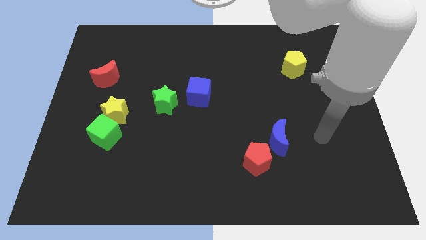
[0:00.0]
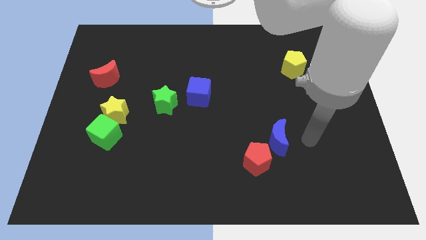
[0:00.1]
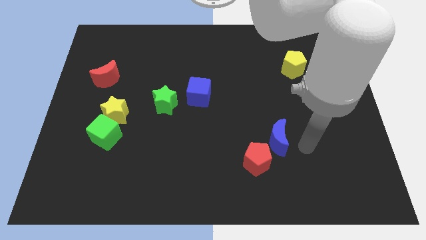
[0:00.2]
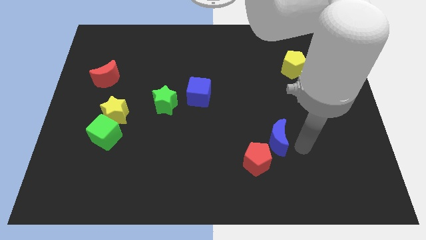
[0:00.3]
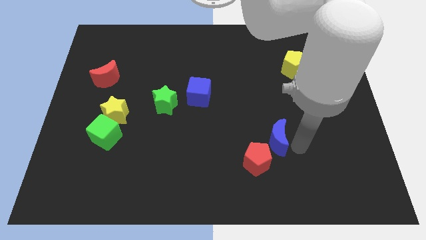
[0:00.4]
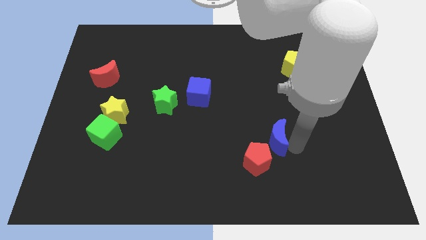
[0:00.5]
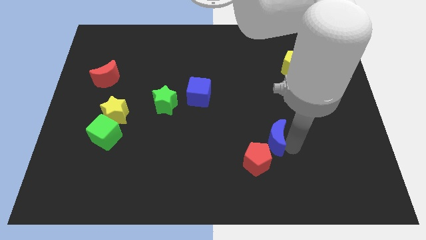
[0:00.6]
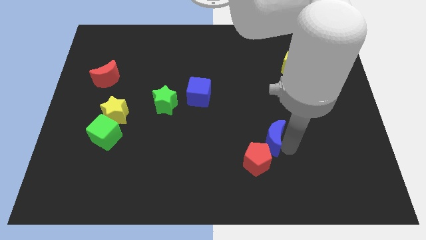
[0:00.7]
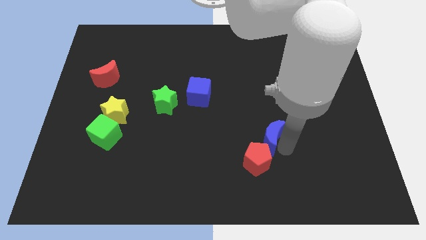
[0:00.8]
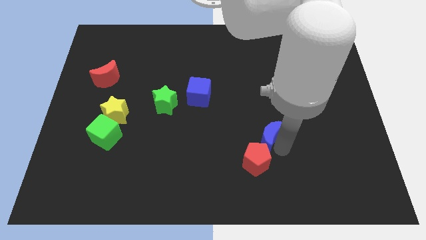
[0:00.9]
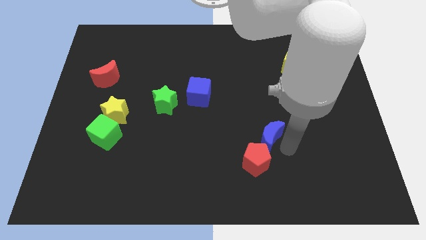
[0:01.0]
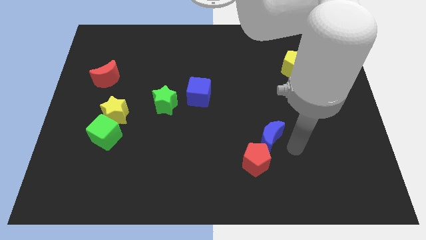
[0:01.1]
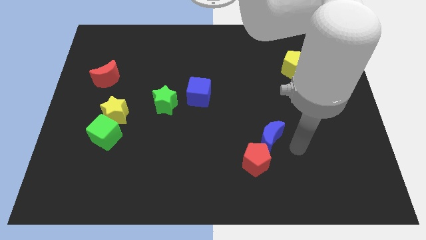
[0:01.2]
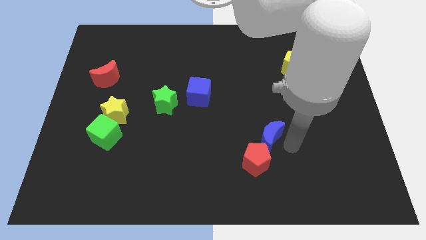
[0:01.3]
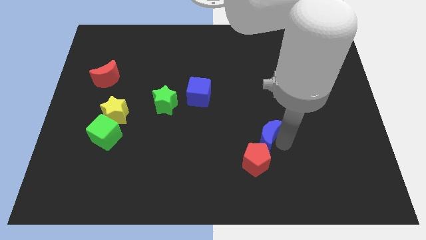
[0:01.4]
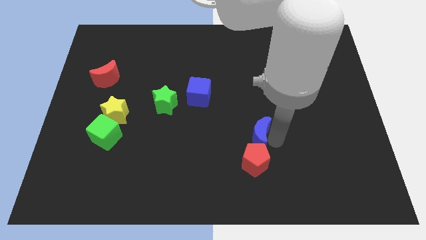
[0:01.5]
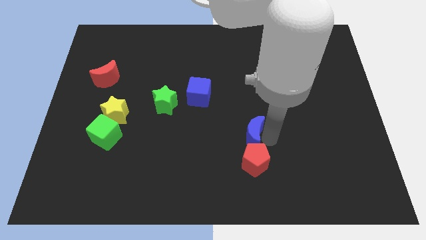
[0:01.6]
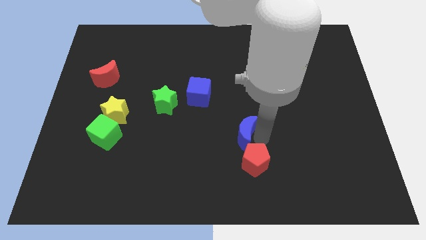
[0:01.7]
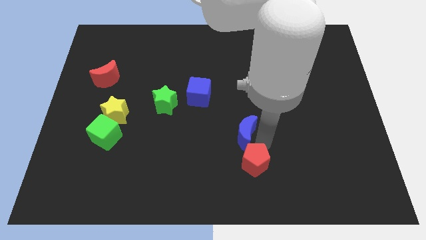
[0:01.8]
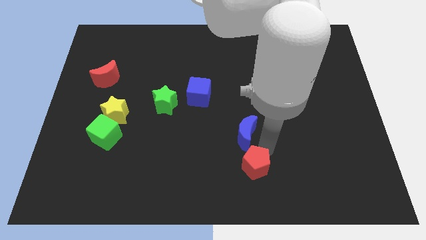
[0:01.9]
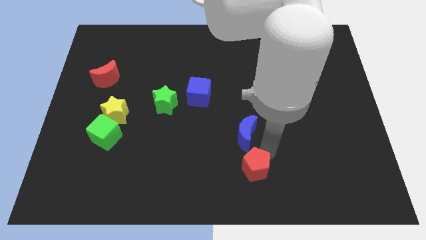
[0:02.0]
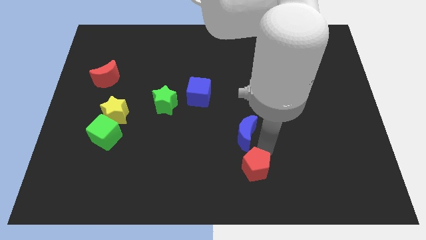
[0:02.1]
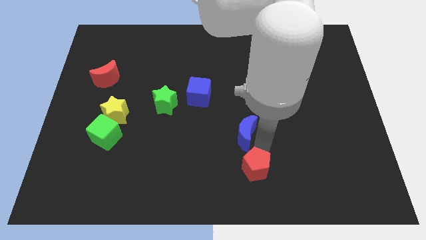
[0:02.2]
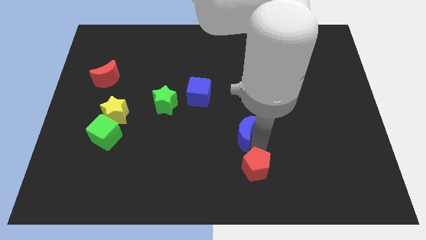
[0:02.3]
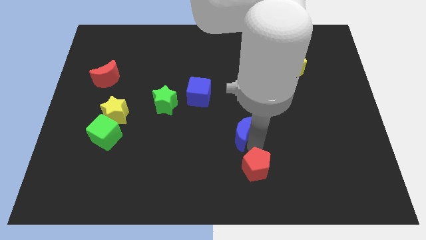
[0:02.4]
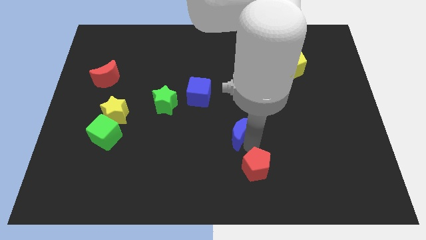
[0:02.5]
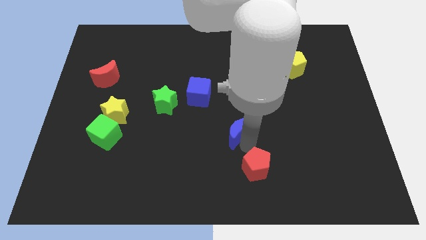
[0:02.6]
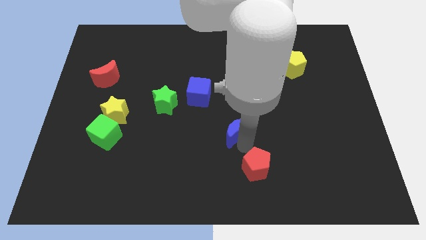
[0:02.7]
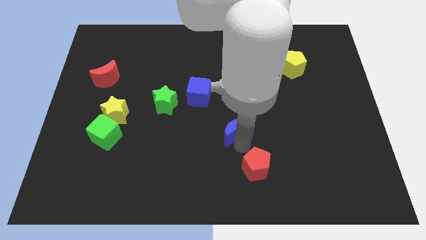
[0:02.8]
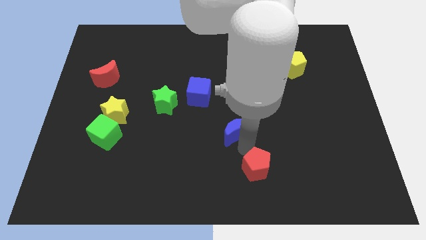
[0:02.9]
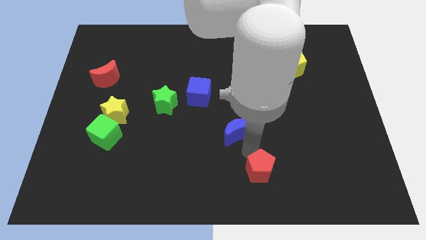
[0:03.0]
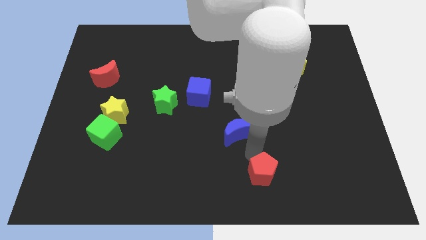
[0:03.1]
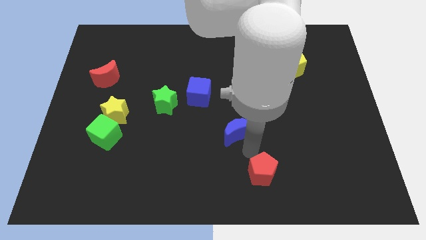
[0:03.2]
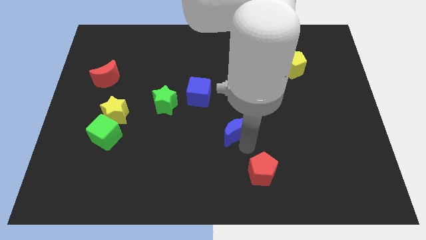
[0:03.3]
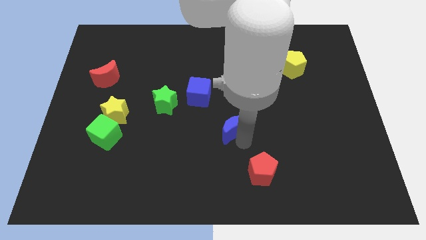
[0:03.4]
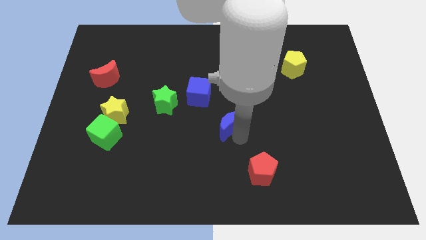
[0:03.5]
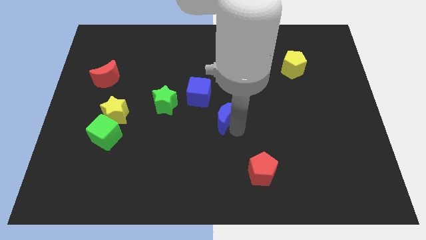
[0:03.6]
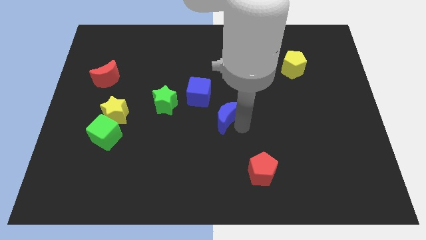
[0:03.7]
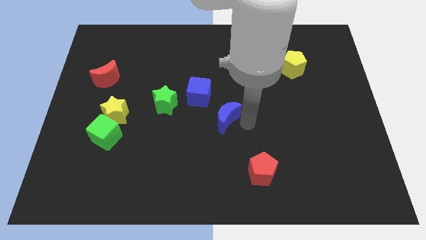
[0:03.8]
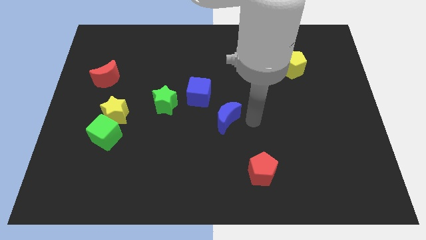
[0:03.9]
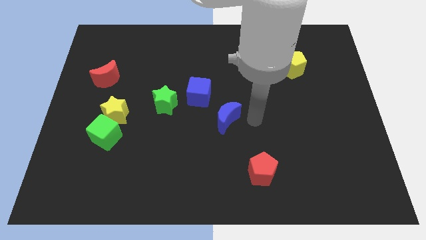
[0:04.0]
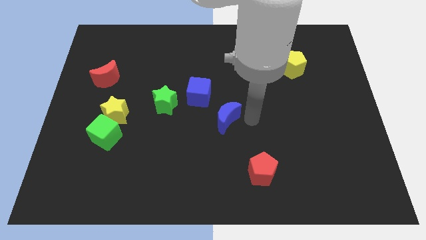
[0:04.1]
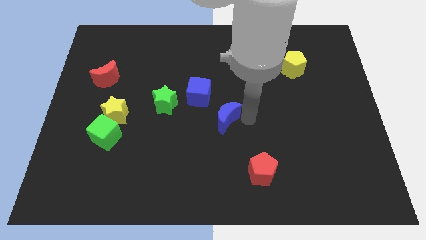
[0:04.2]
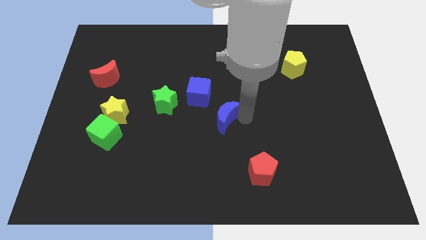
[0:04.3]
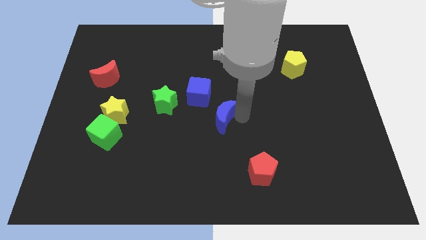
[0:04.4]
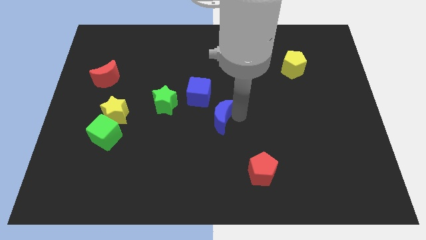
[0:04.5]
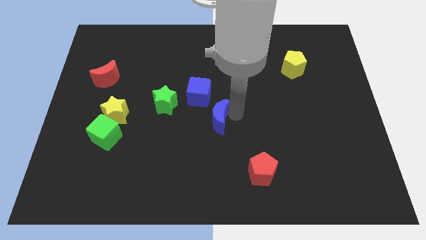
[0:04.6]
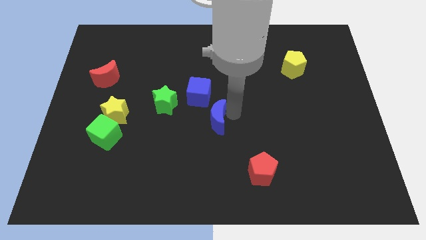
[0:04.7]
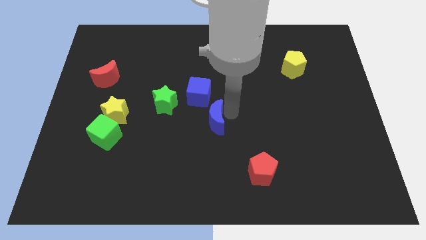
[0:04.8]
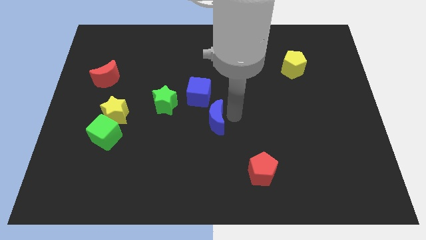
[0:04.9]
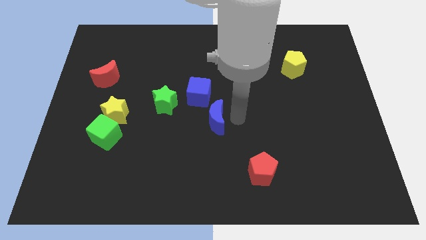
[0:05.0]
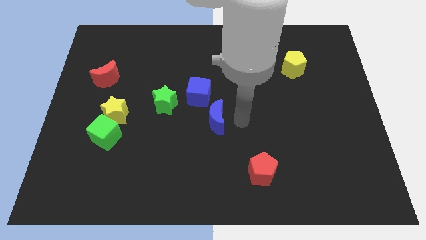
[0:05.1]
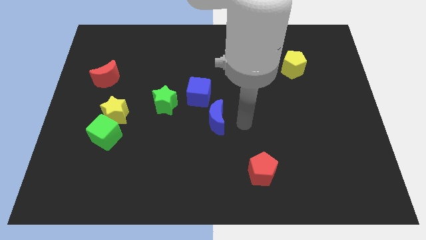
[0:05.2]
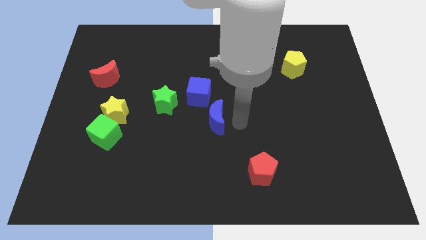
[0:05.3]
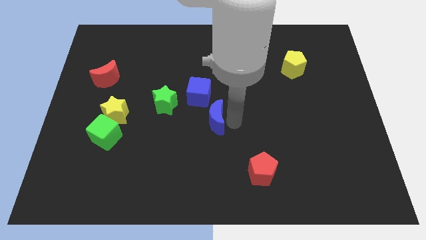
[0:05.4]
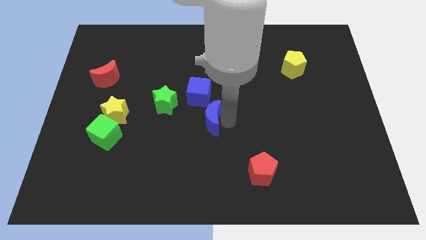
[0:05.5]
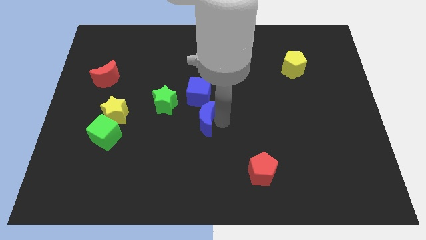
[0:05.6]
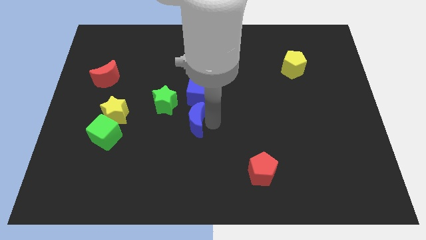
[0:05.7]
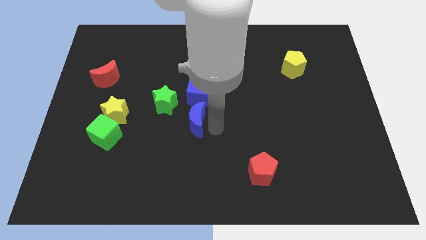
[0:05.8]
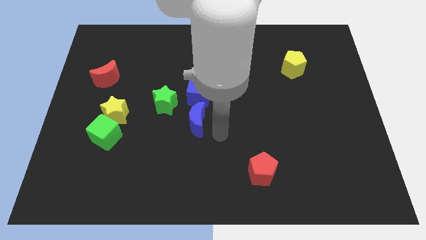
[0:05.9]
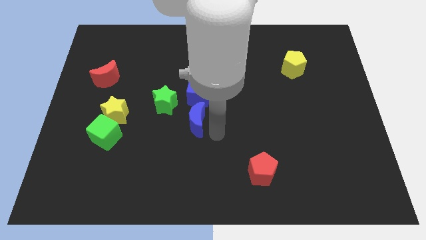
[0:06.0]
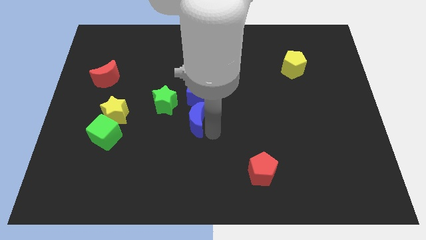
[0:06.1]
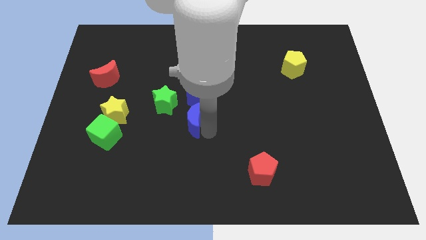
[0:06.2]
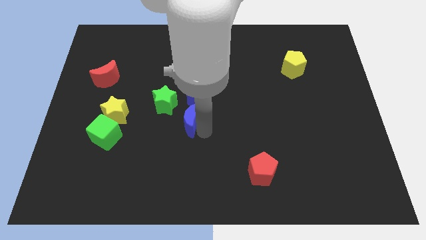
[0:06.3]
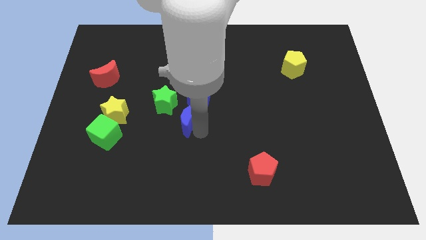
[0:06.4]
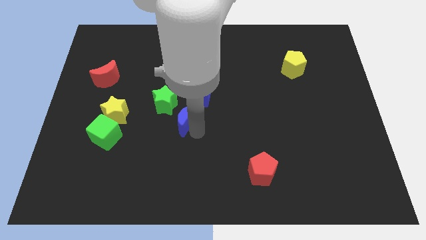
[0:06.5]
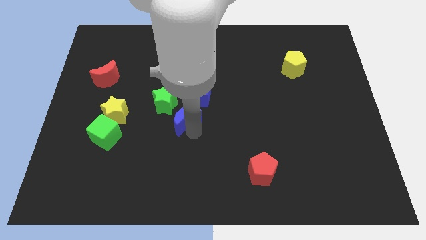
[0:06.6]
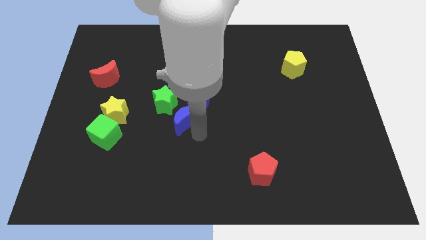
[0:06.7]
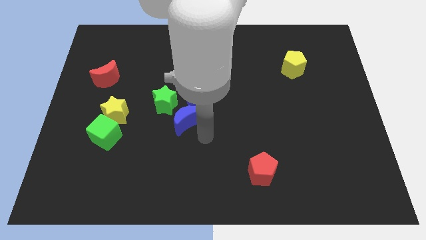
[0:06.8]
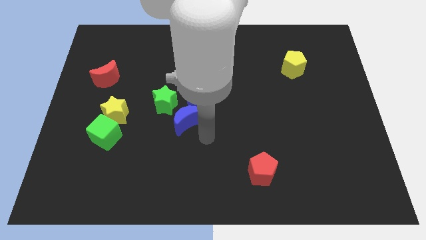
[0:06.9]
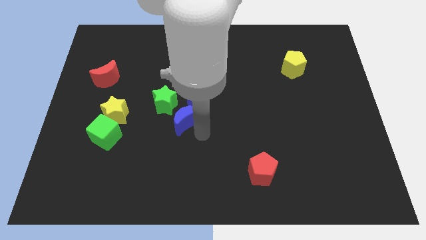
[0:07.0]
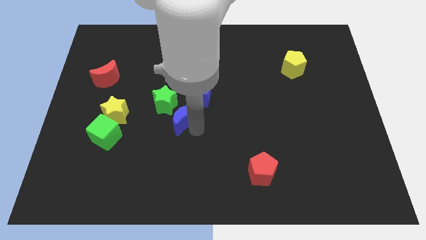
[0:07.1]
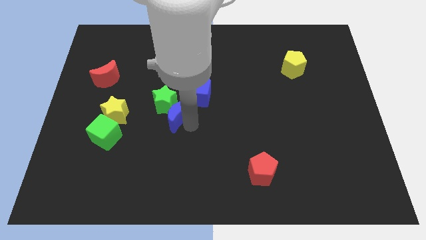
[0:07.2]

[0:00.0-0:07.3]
move the blue moon next to the green star
